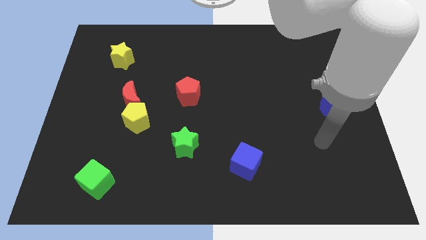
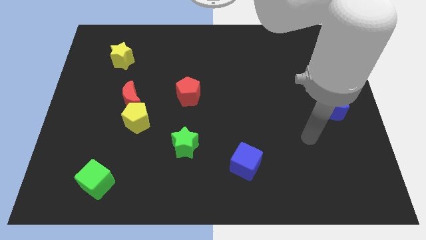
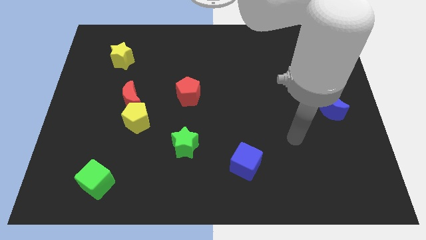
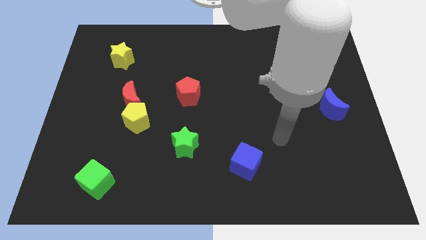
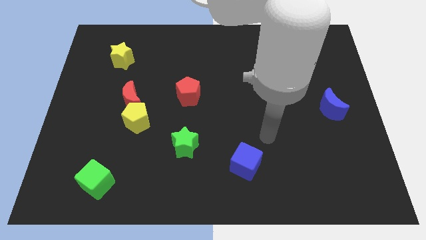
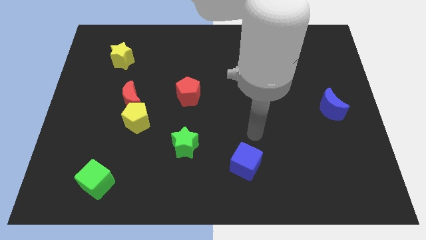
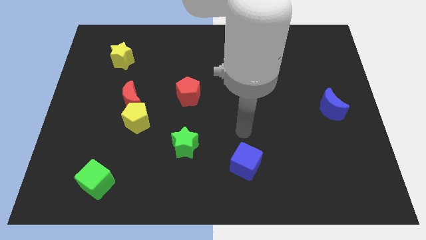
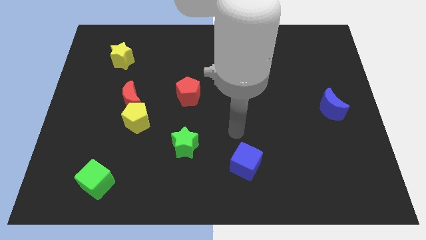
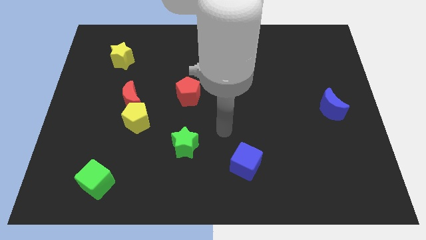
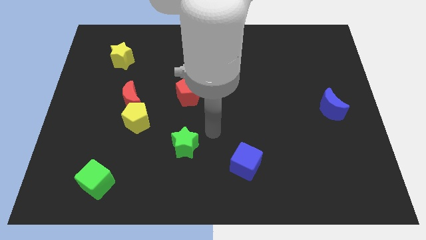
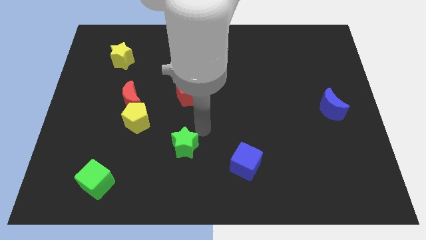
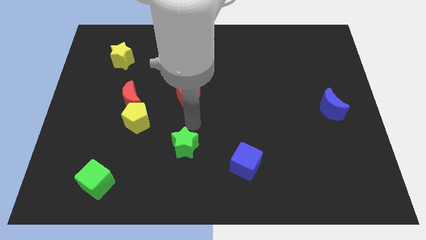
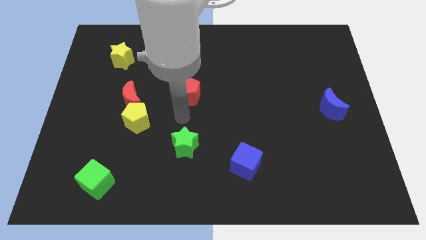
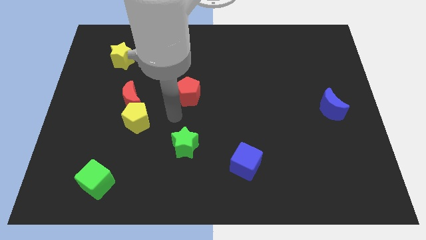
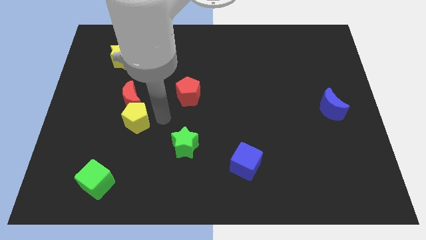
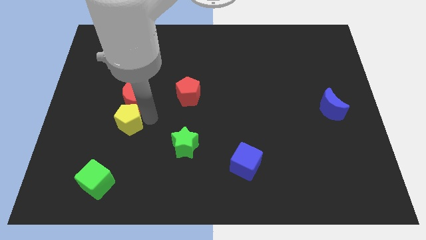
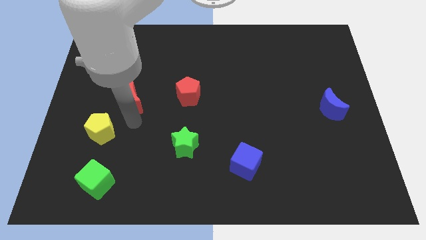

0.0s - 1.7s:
move the red moon away from the yellow pentagon

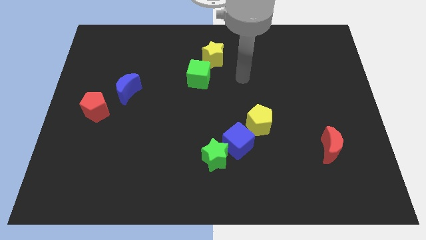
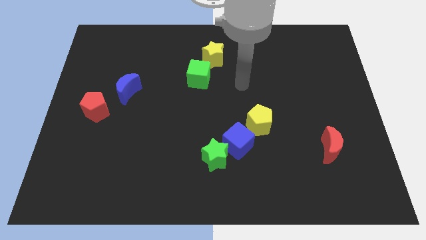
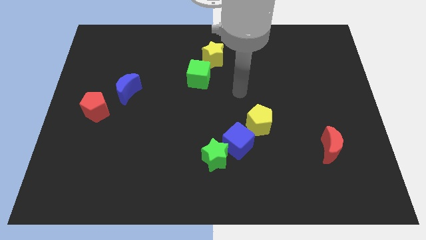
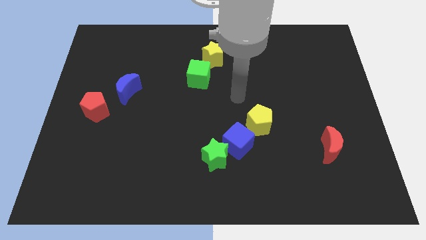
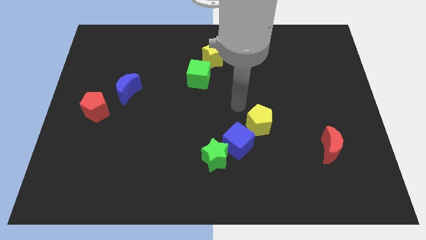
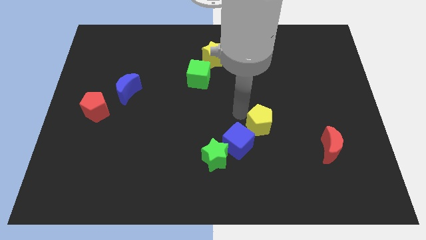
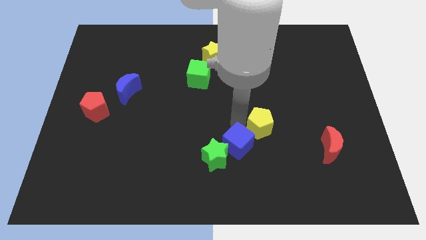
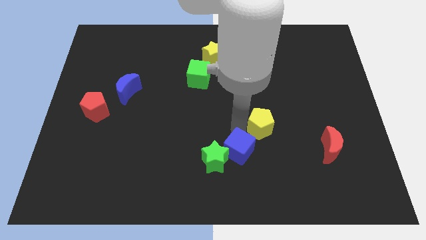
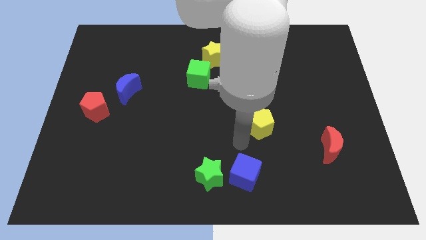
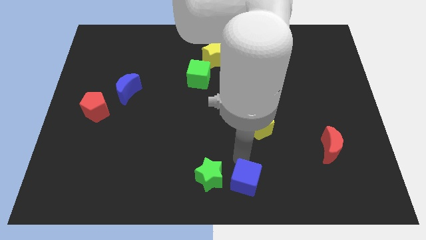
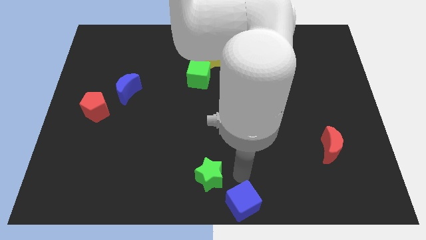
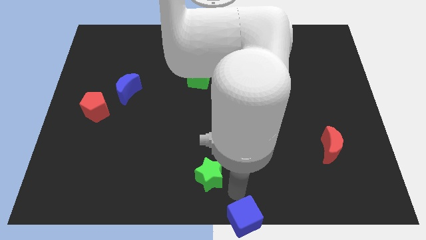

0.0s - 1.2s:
pull the green star apart from the blue cube

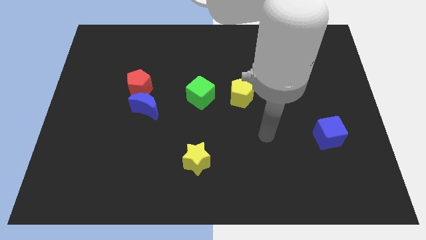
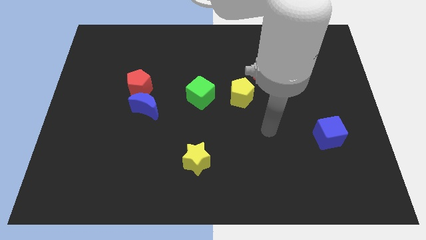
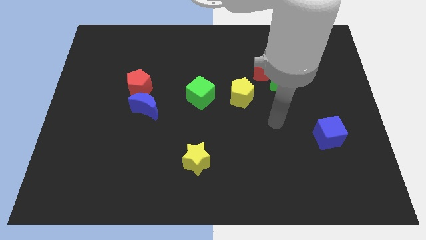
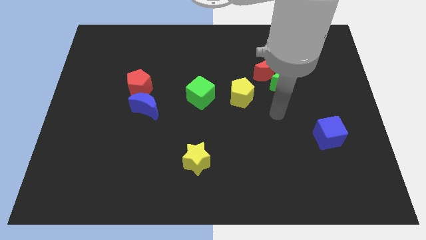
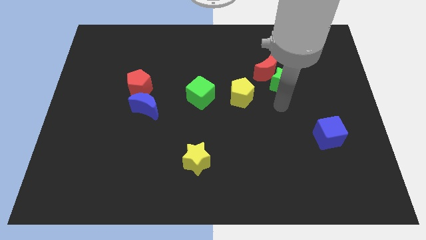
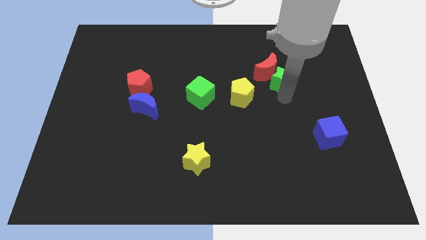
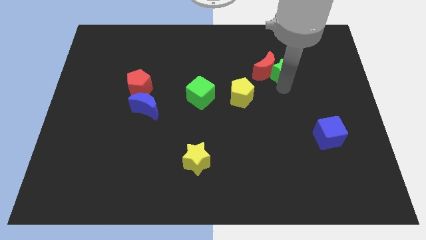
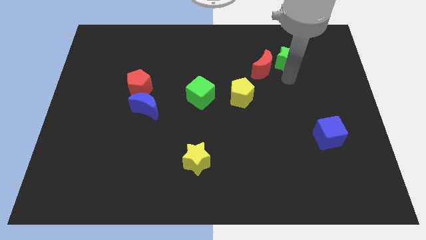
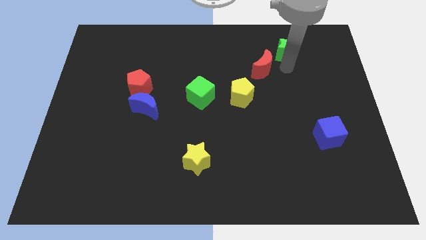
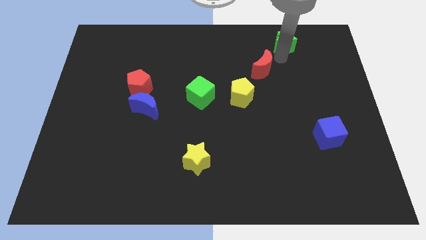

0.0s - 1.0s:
separate the red moon from the green star

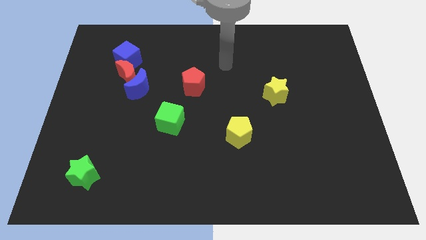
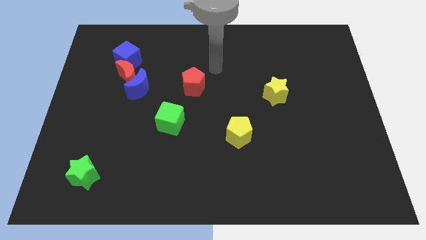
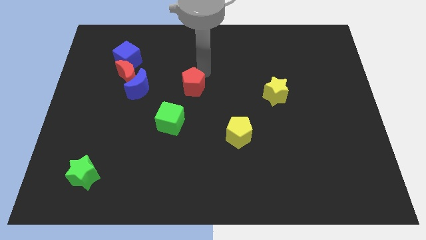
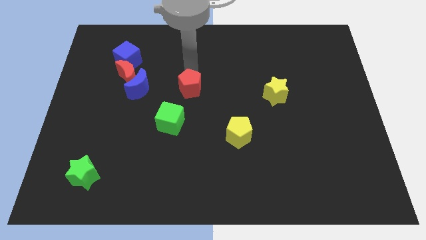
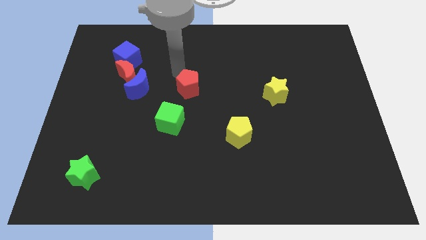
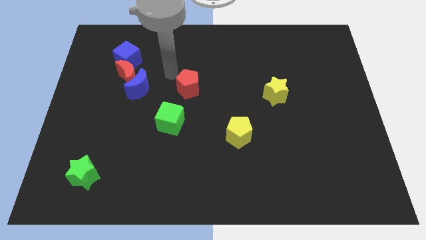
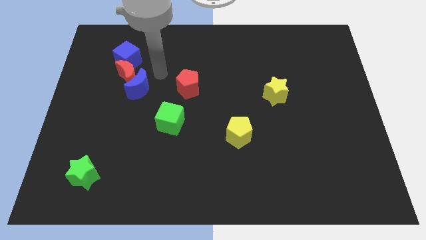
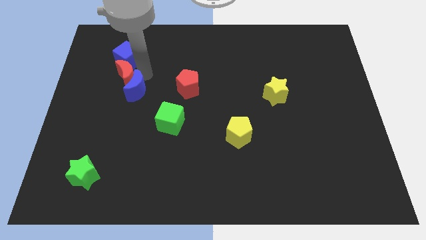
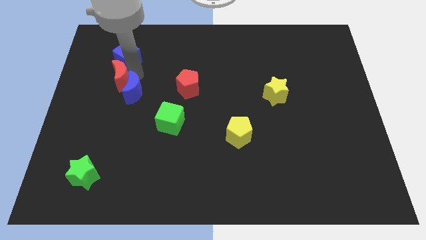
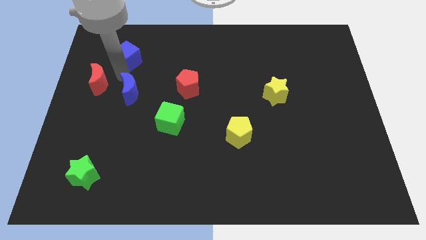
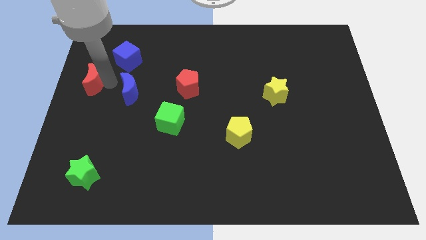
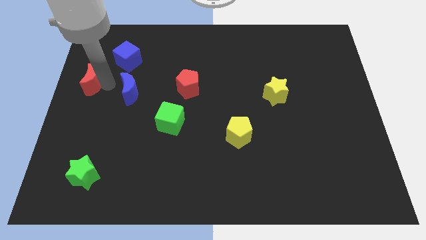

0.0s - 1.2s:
pull the blue moon apart from the red moon

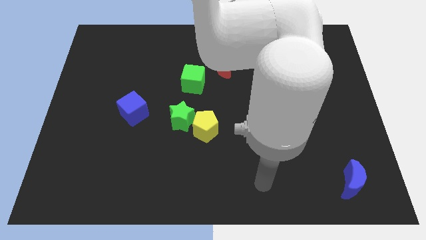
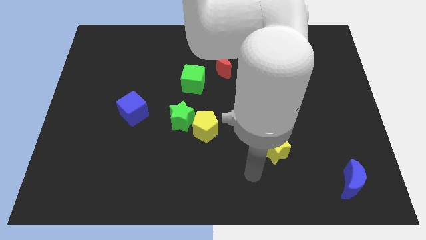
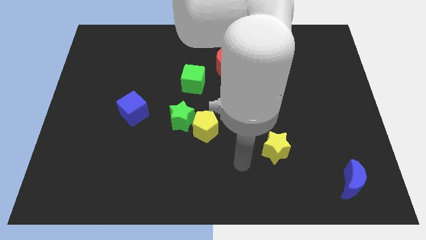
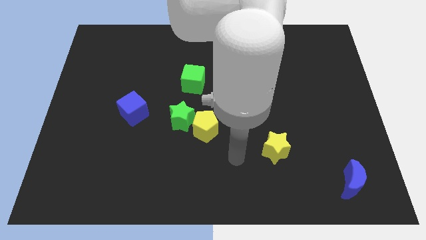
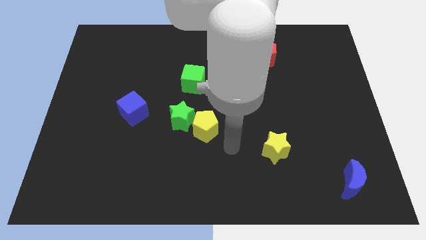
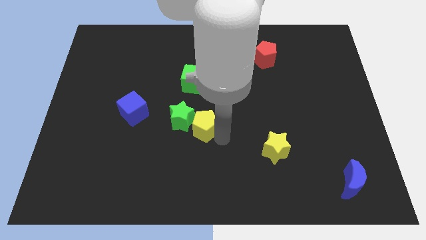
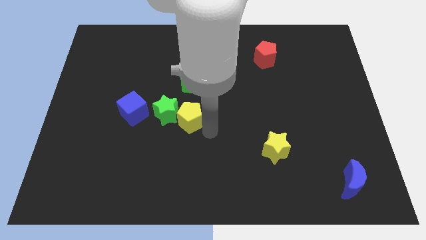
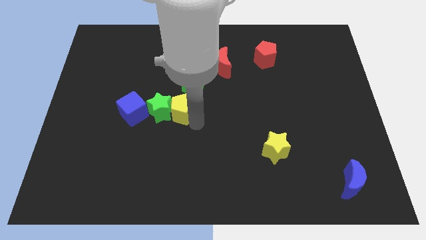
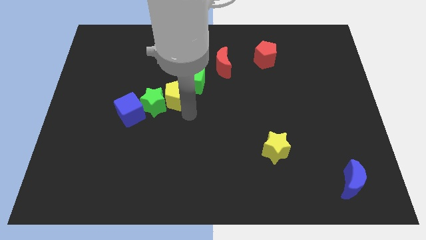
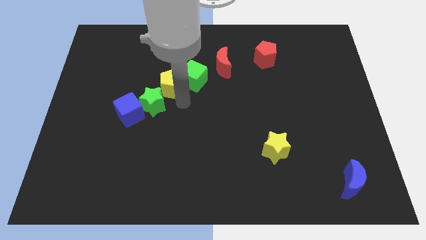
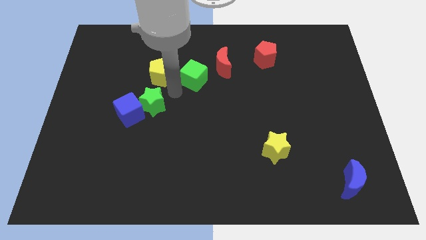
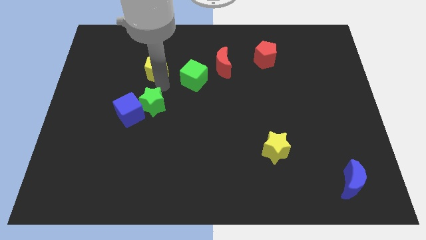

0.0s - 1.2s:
move the green star away from the yellow pentagon

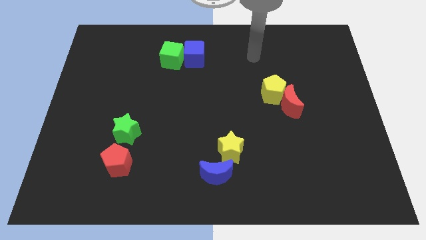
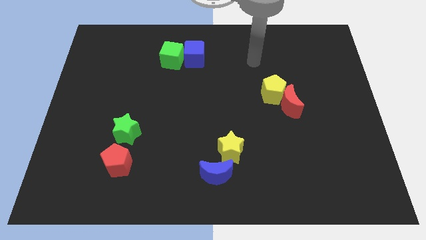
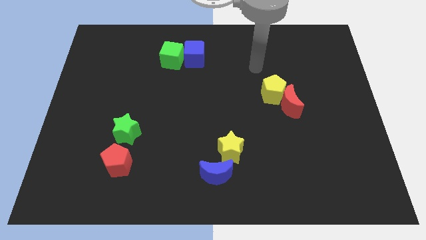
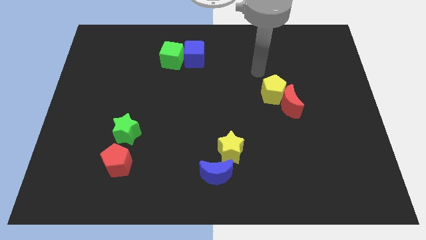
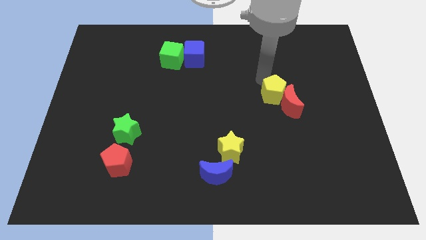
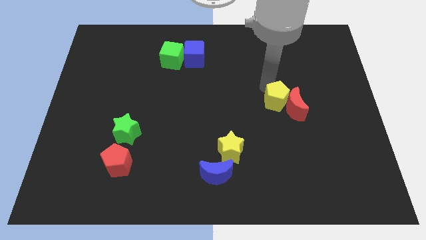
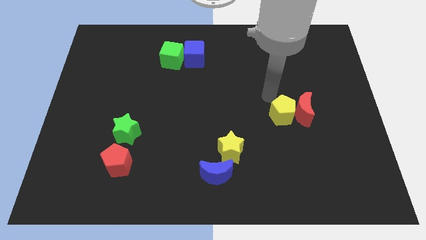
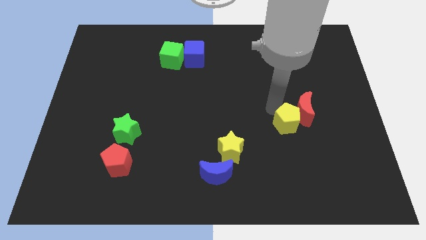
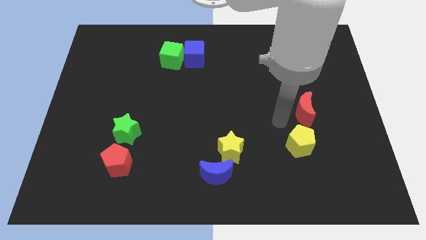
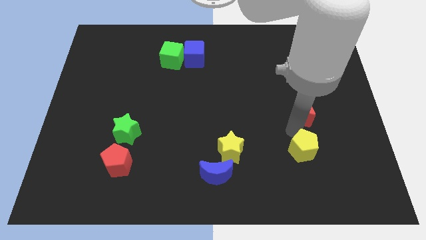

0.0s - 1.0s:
separate the red moon from the yellow pentagon

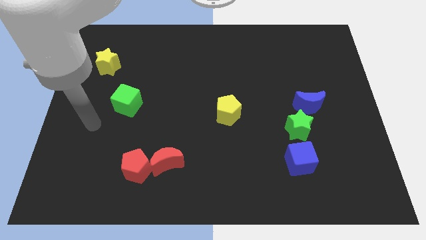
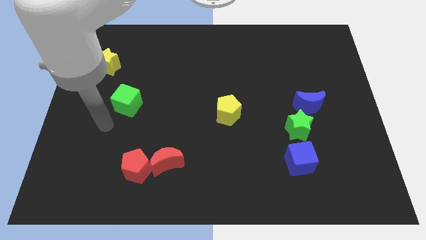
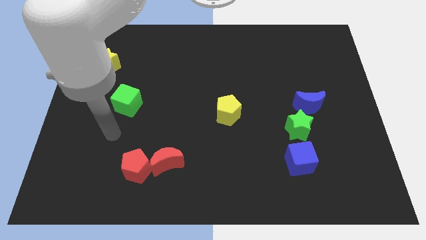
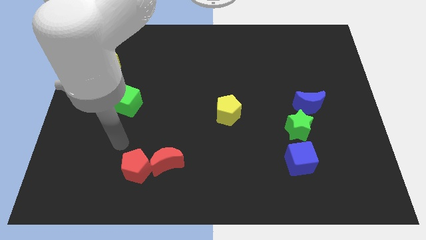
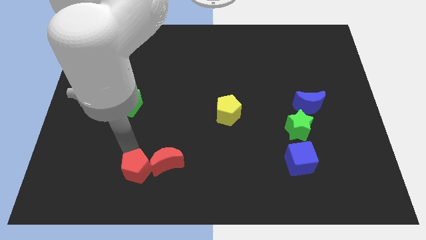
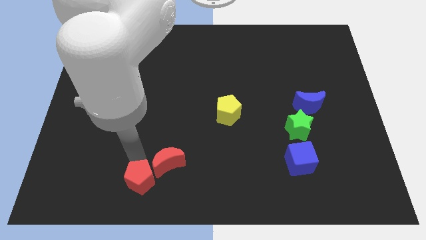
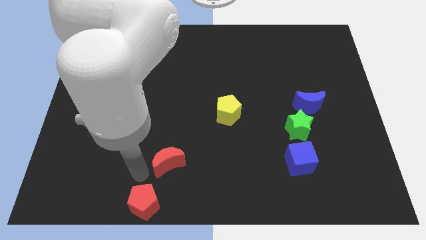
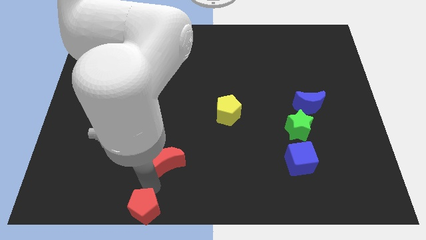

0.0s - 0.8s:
pull the red moon apart from the red pentagon

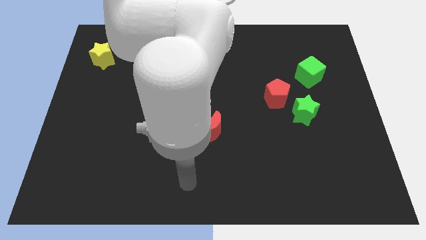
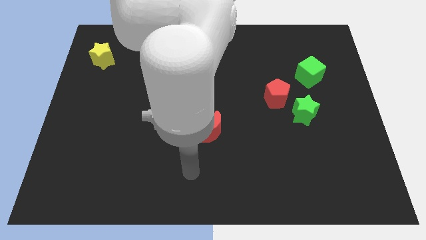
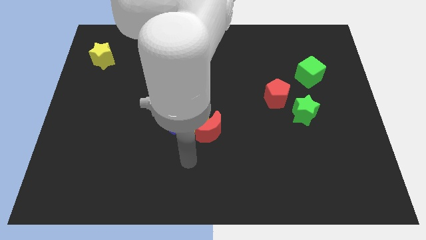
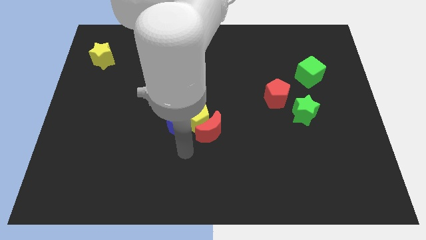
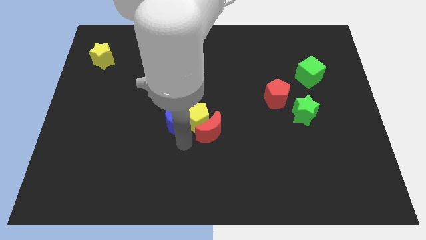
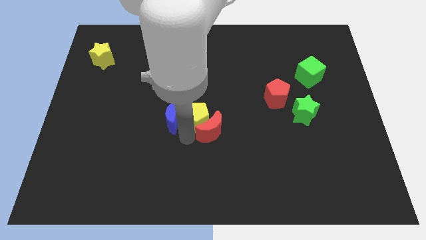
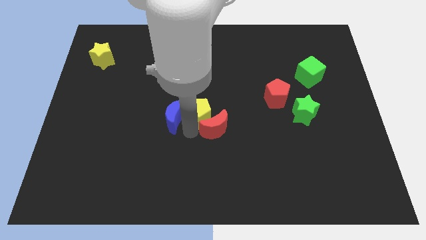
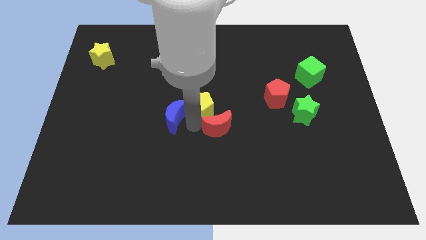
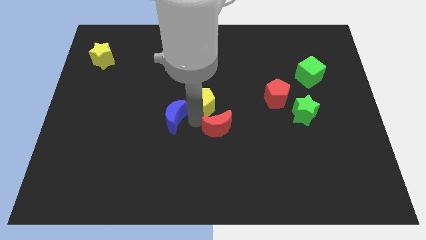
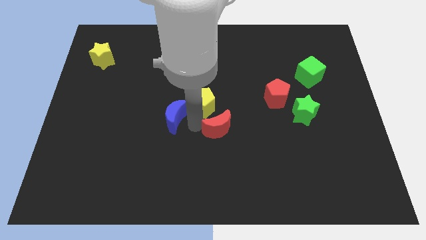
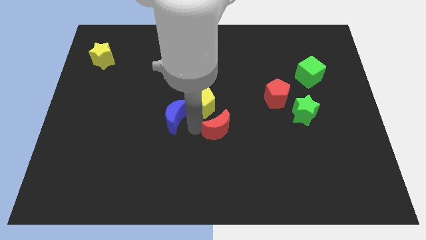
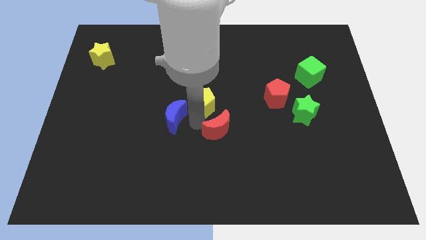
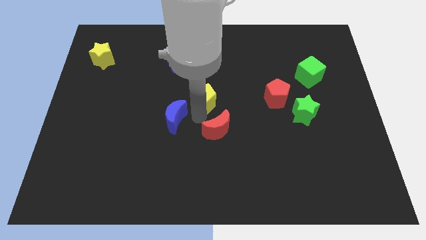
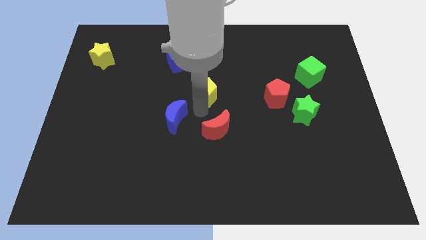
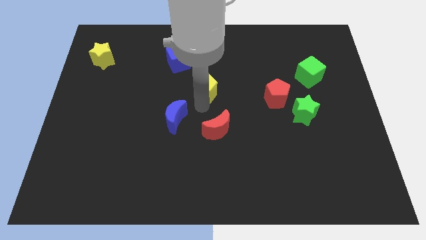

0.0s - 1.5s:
pull the yellow pentagon apart from the red moon and blue moon
